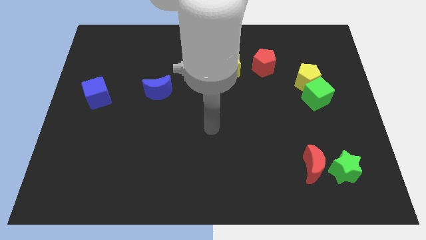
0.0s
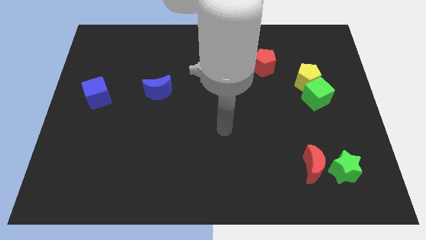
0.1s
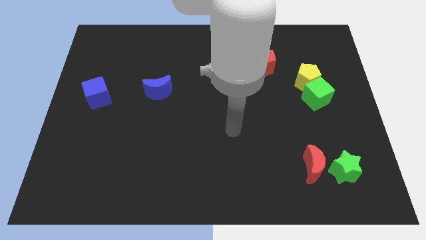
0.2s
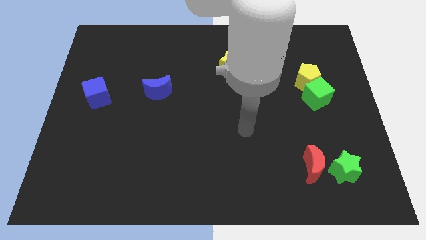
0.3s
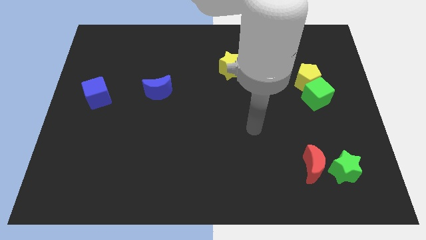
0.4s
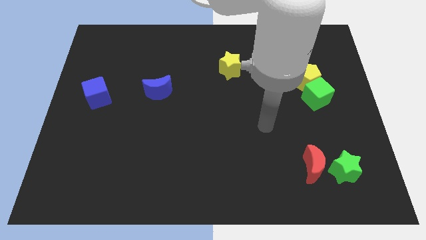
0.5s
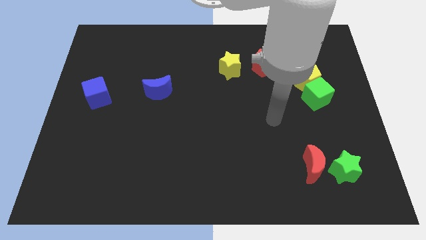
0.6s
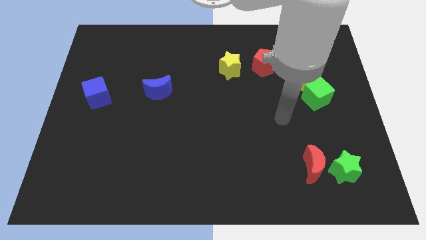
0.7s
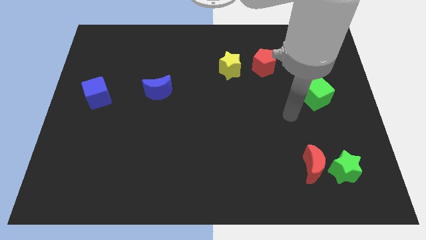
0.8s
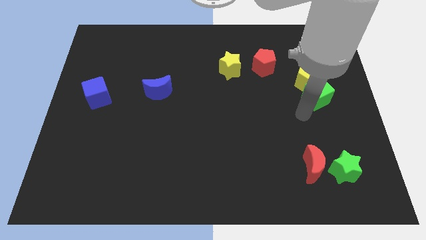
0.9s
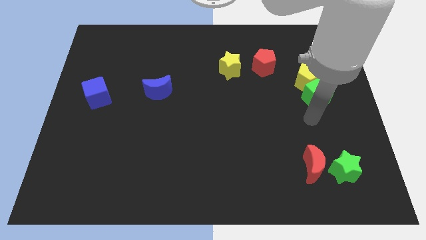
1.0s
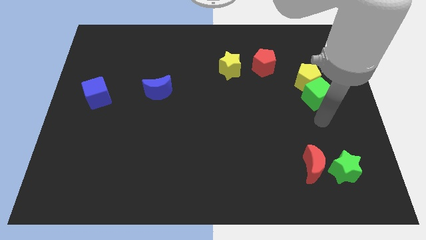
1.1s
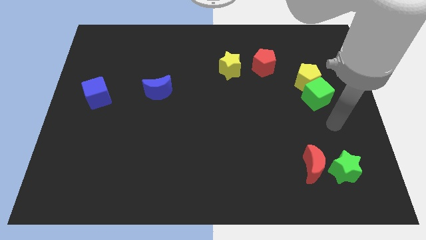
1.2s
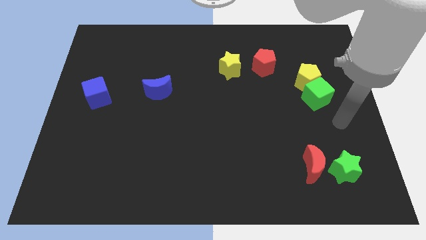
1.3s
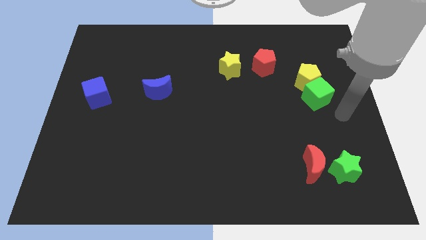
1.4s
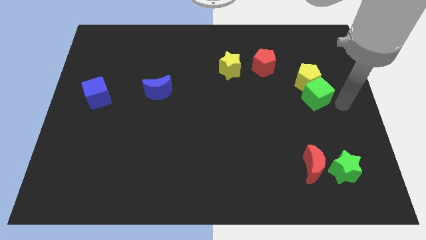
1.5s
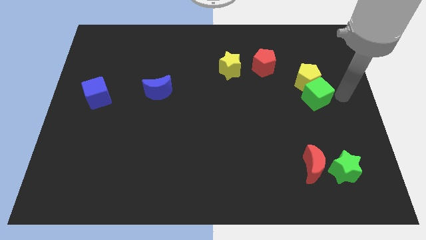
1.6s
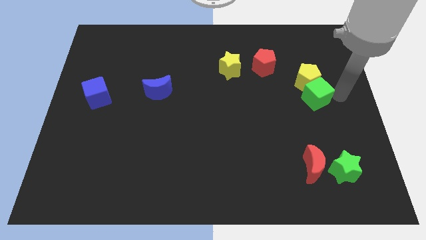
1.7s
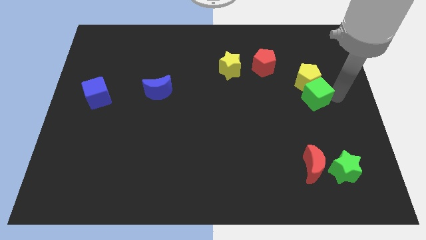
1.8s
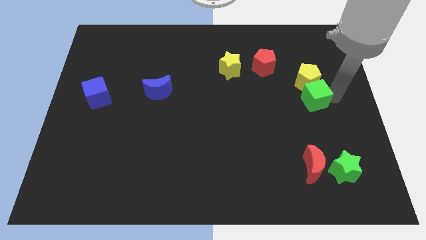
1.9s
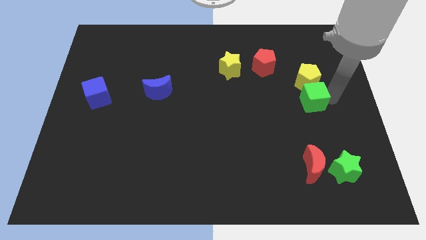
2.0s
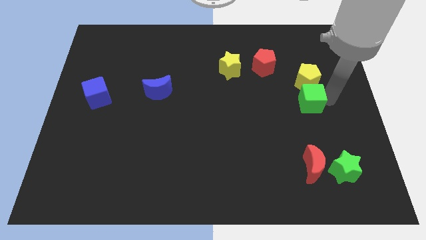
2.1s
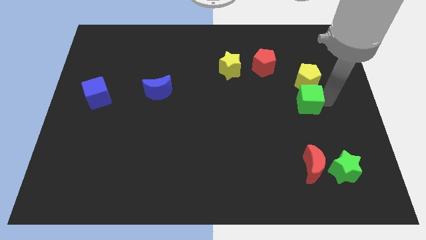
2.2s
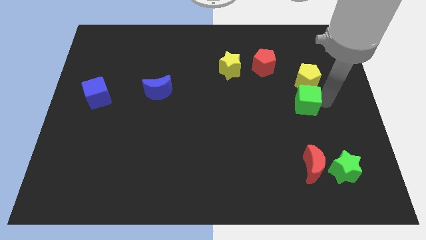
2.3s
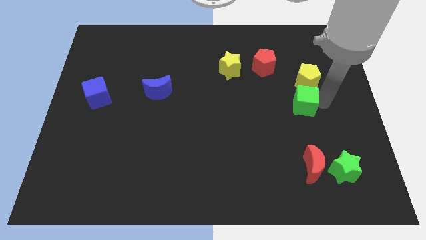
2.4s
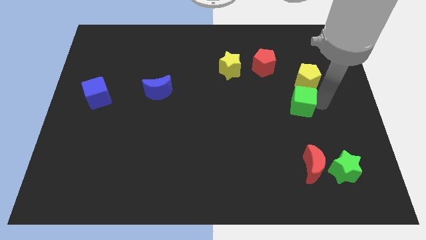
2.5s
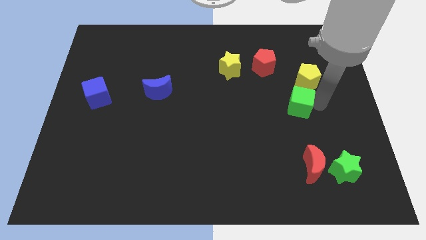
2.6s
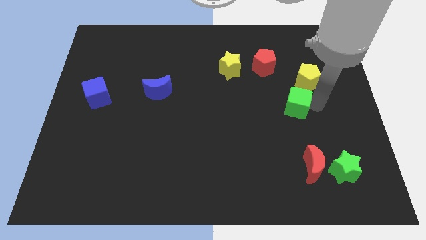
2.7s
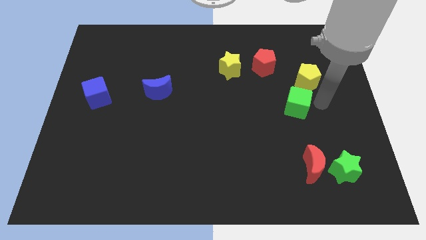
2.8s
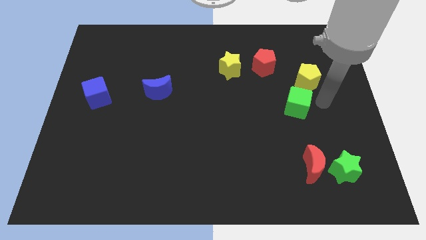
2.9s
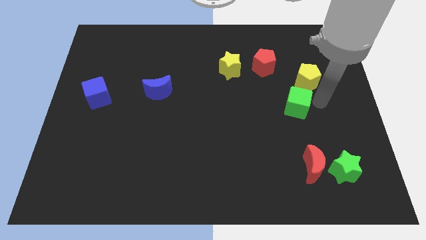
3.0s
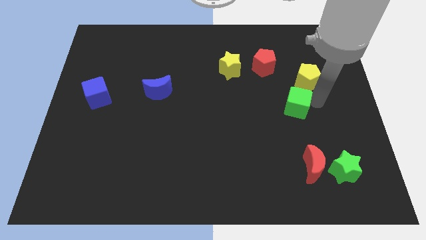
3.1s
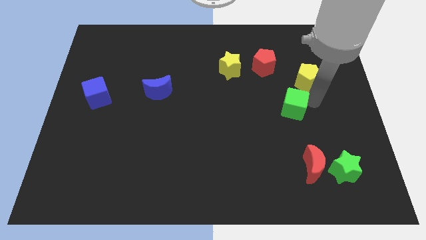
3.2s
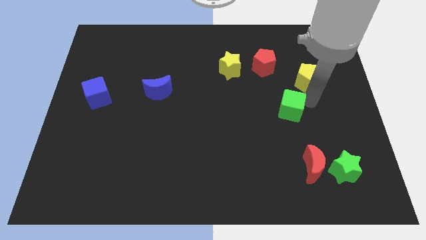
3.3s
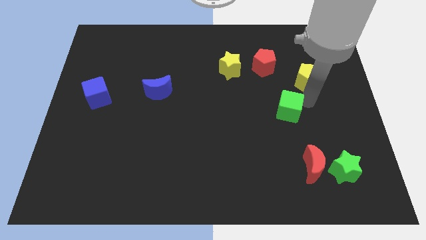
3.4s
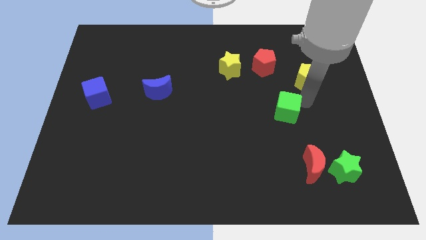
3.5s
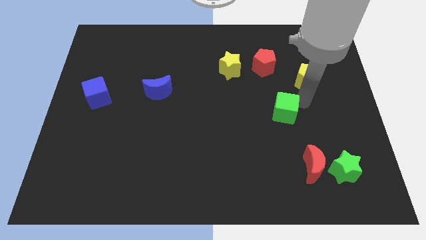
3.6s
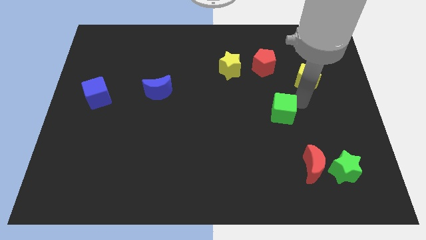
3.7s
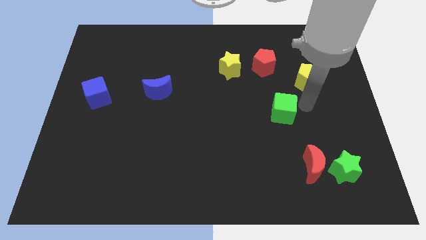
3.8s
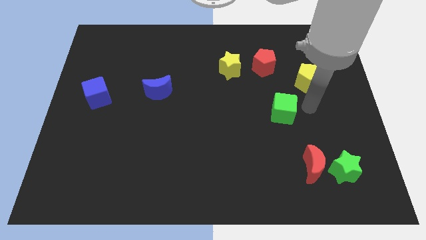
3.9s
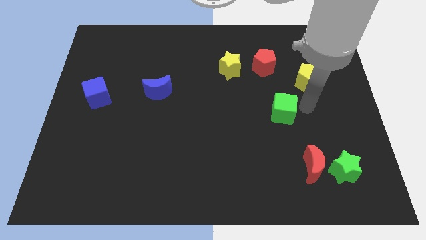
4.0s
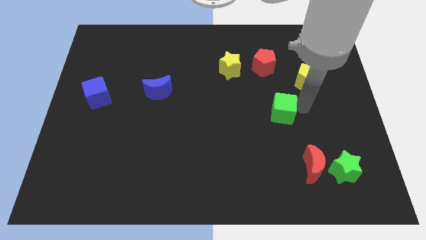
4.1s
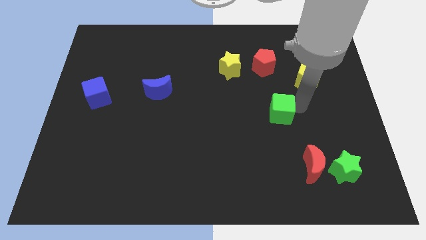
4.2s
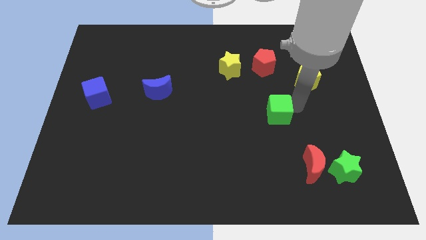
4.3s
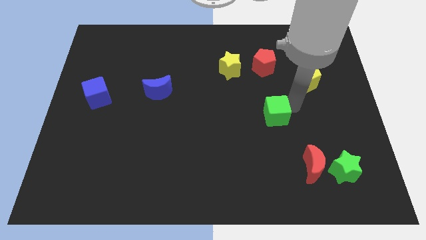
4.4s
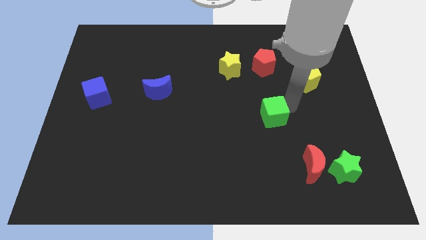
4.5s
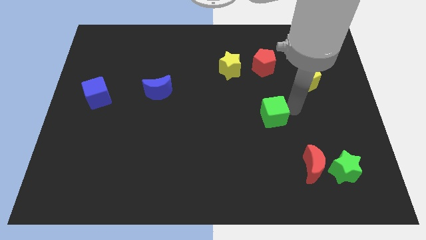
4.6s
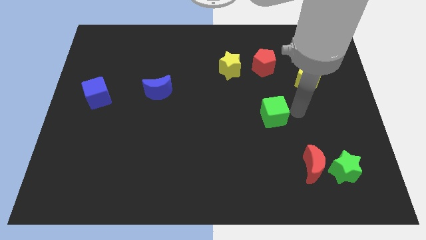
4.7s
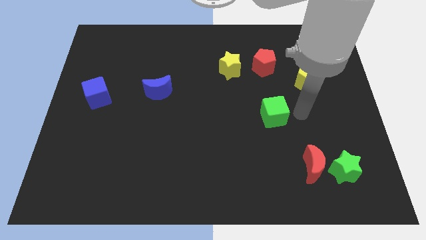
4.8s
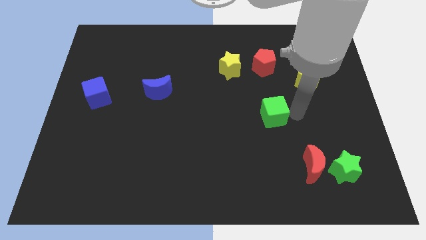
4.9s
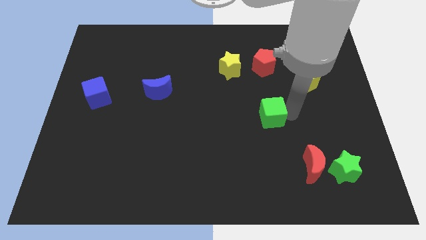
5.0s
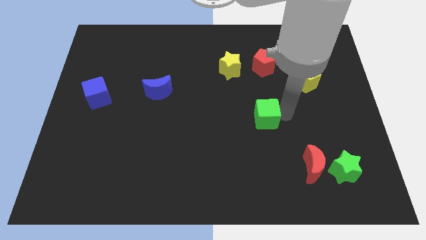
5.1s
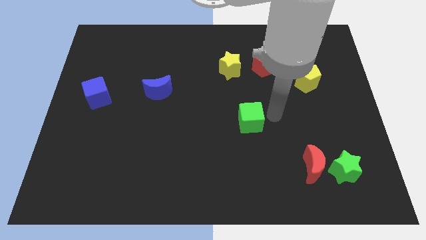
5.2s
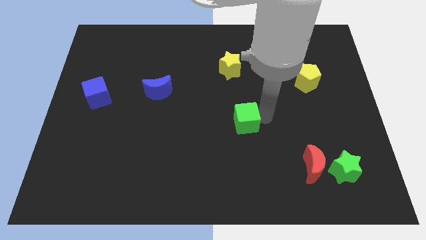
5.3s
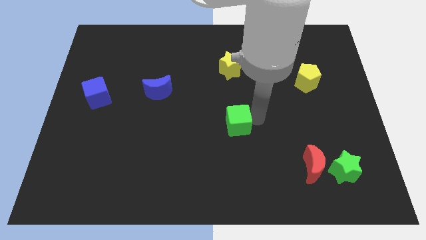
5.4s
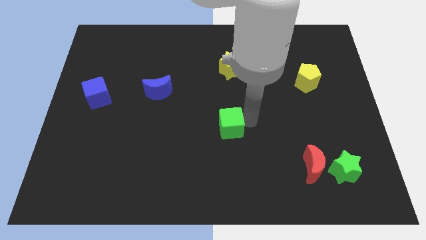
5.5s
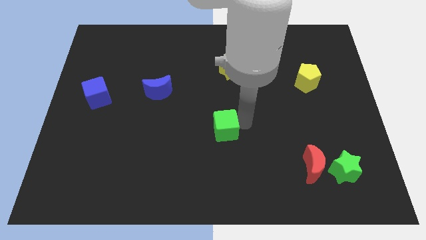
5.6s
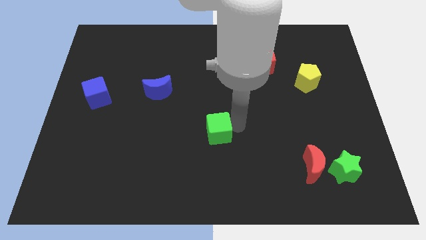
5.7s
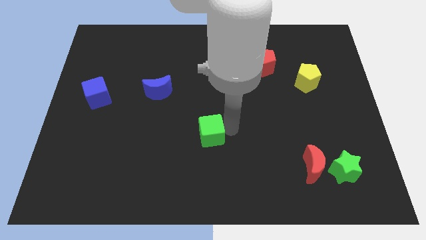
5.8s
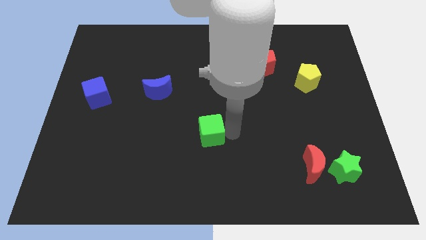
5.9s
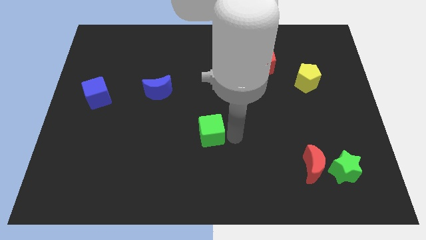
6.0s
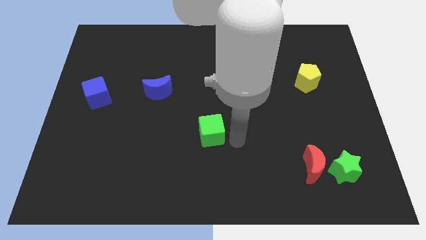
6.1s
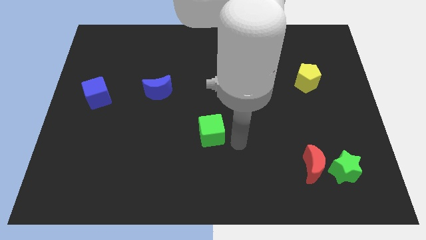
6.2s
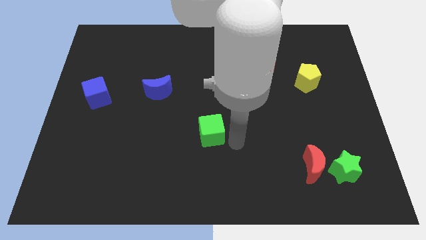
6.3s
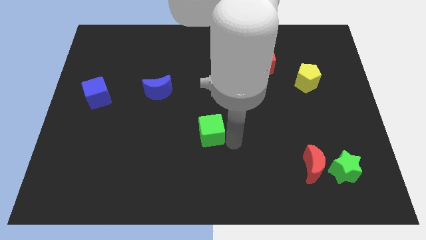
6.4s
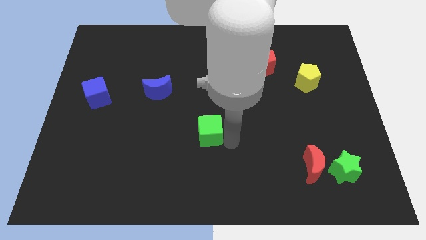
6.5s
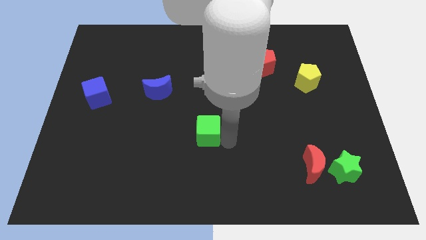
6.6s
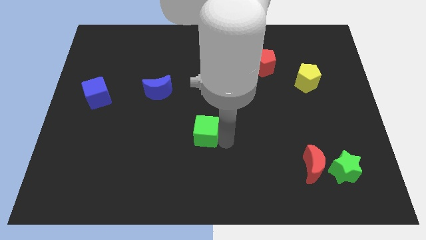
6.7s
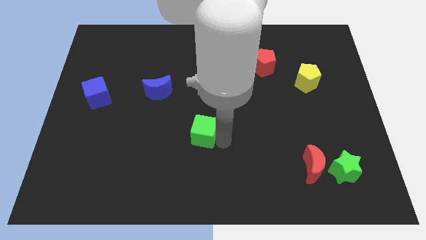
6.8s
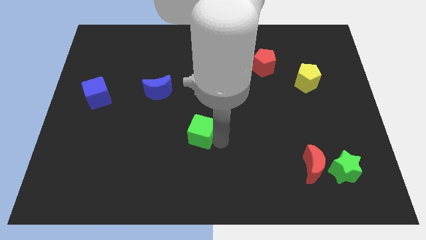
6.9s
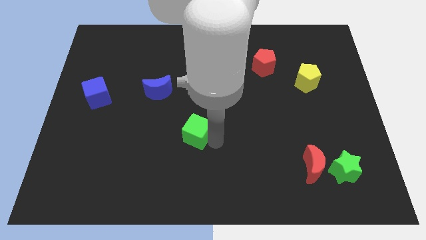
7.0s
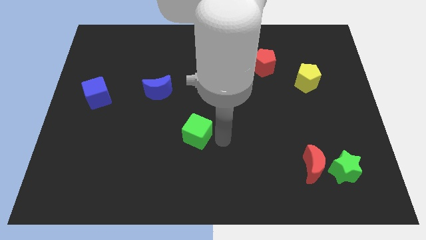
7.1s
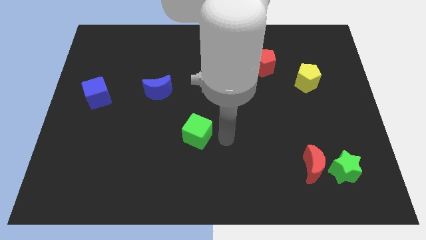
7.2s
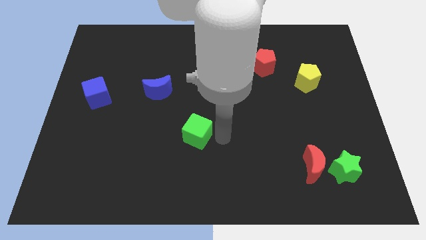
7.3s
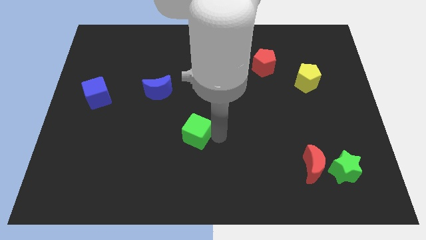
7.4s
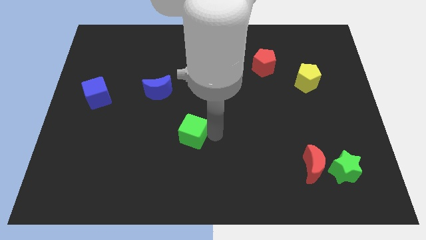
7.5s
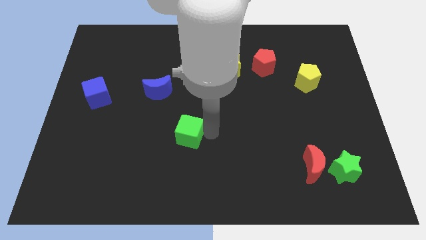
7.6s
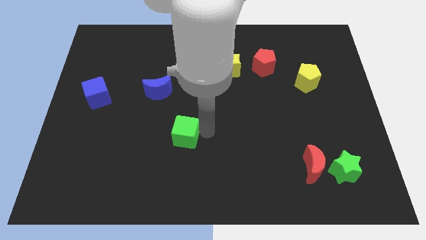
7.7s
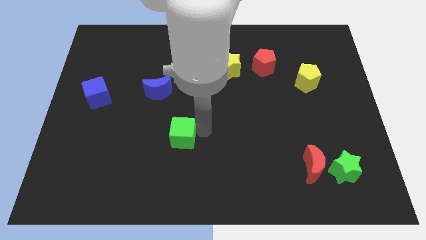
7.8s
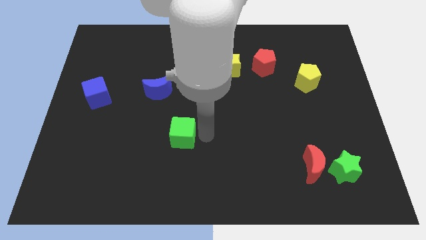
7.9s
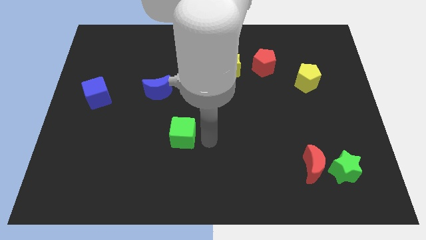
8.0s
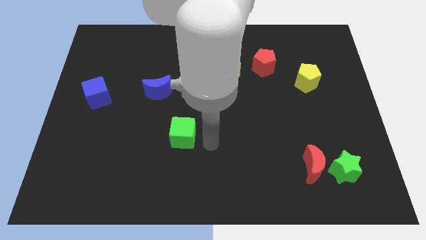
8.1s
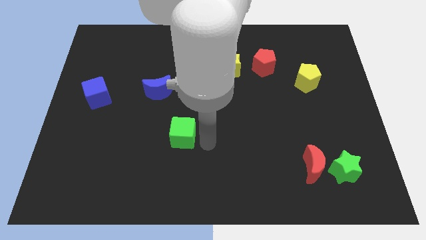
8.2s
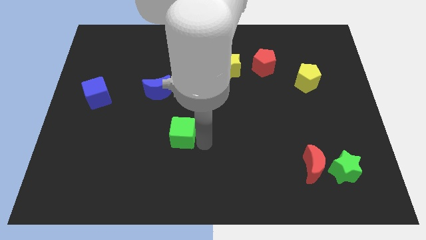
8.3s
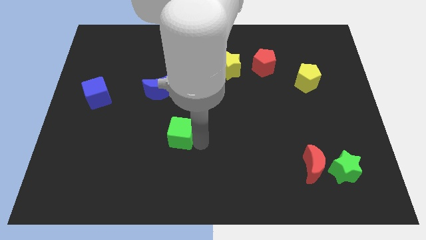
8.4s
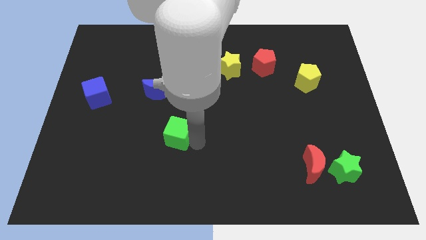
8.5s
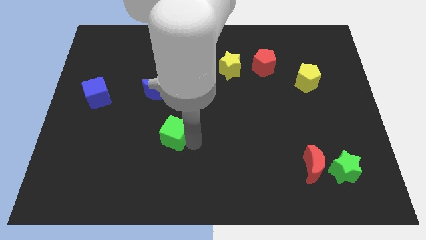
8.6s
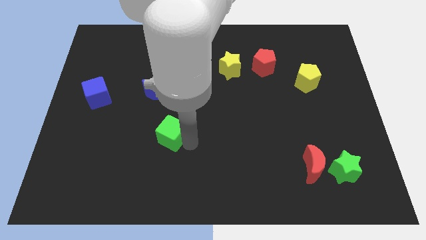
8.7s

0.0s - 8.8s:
push the green cube below the blue moon
